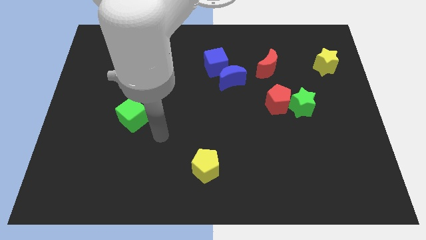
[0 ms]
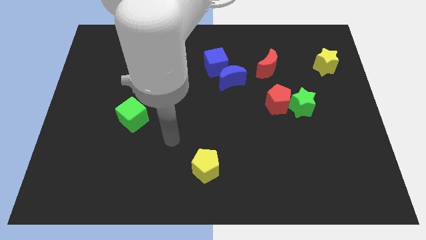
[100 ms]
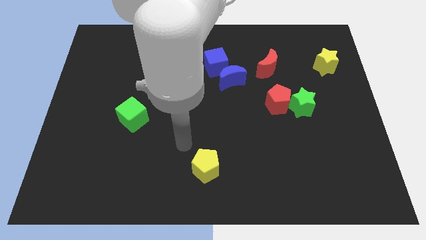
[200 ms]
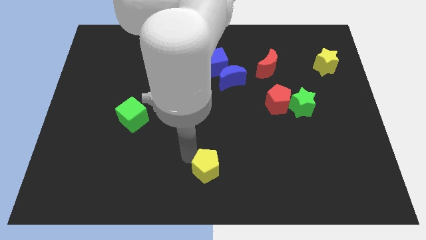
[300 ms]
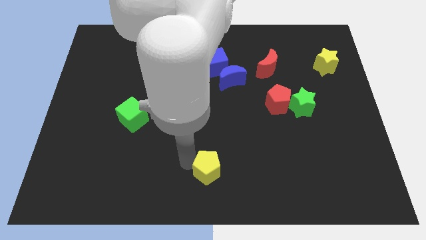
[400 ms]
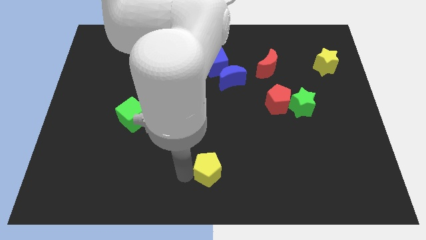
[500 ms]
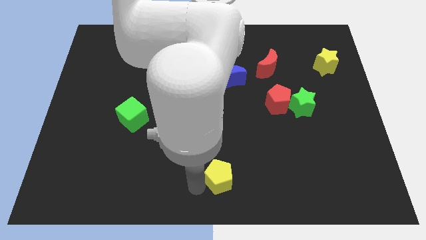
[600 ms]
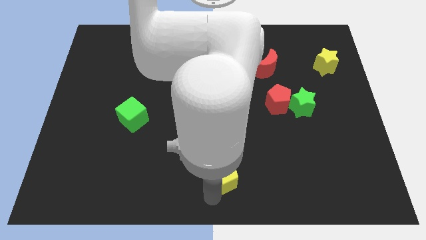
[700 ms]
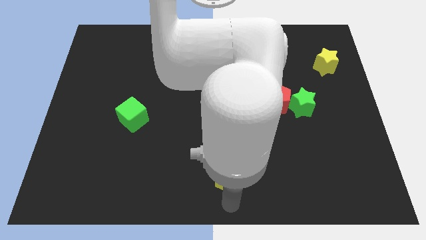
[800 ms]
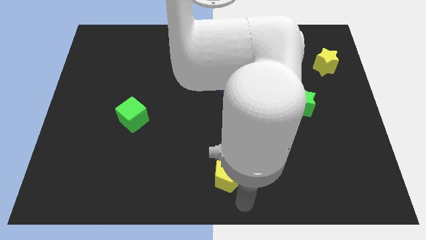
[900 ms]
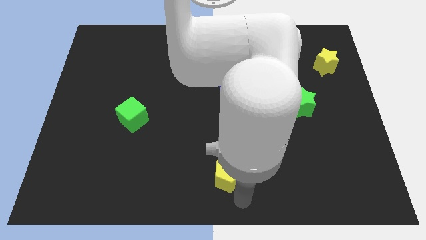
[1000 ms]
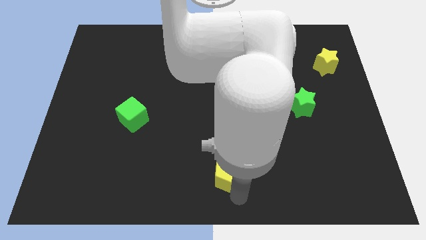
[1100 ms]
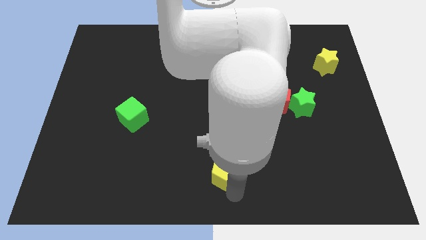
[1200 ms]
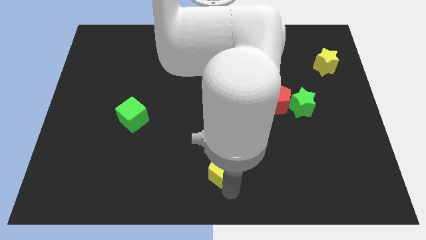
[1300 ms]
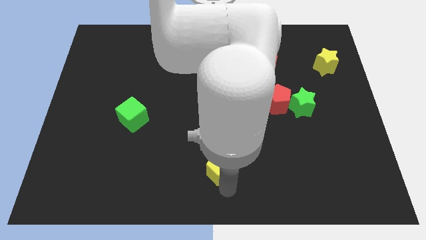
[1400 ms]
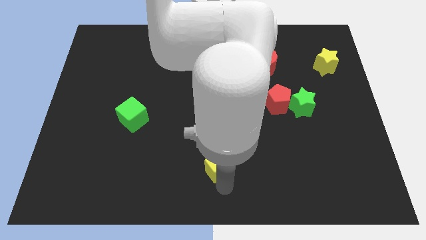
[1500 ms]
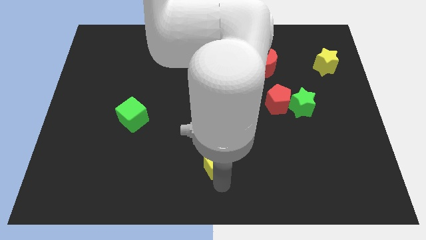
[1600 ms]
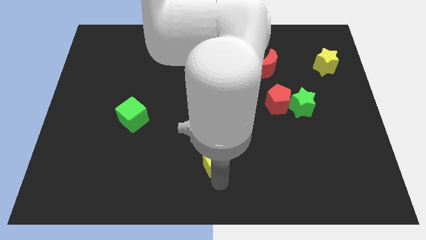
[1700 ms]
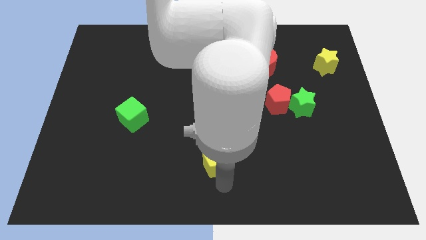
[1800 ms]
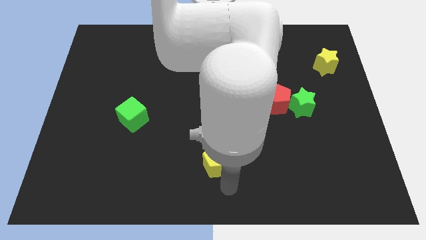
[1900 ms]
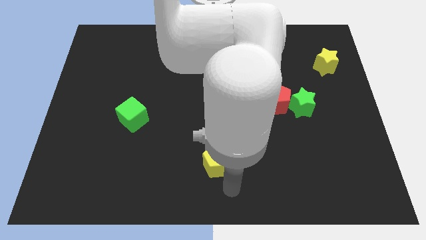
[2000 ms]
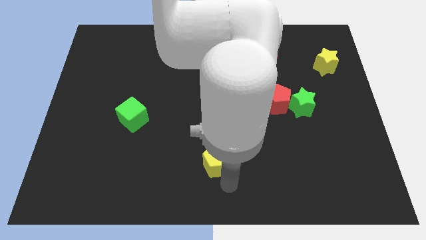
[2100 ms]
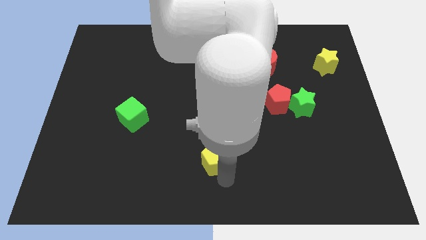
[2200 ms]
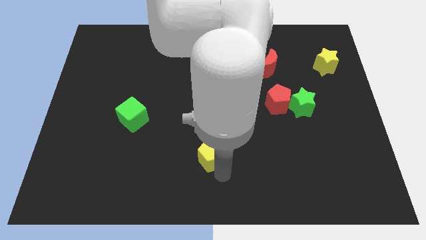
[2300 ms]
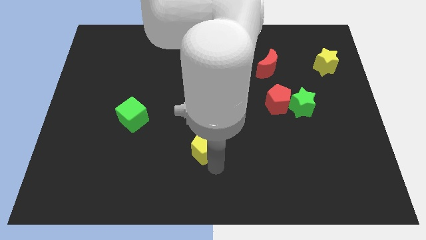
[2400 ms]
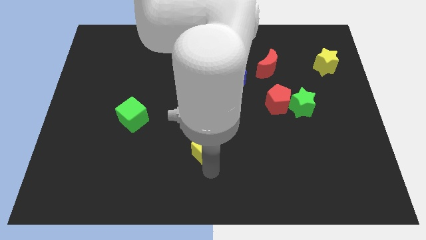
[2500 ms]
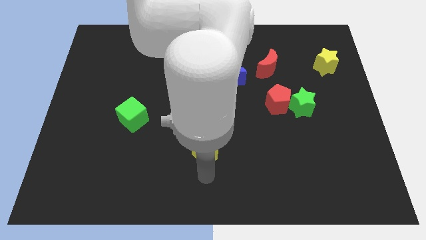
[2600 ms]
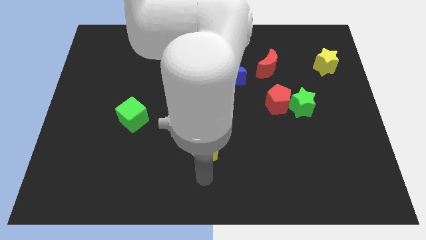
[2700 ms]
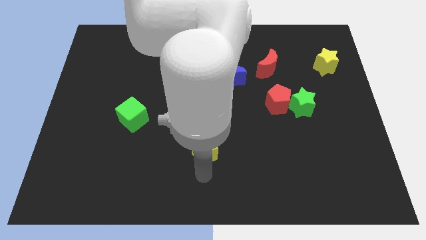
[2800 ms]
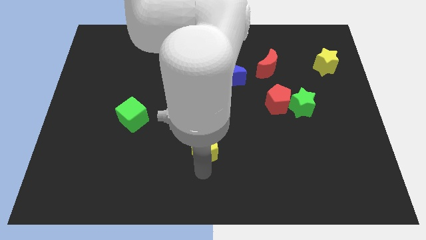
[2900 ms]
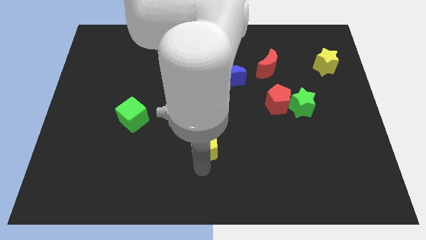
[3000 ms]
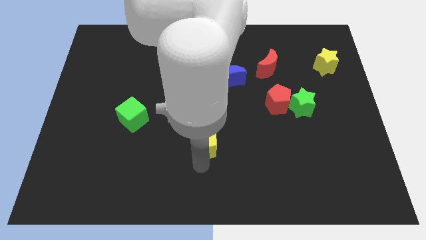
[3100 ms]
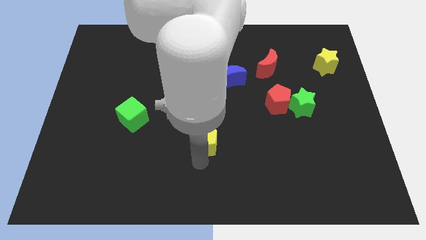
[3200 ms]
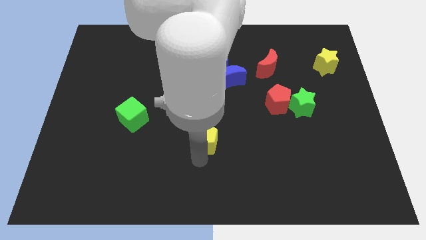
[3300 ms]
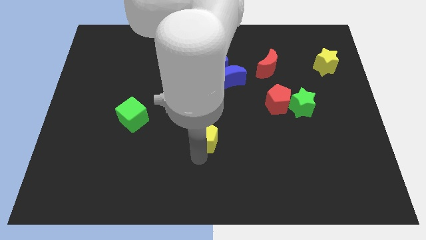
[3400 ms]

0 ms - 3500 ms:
push the yellow pentagon up a little bit

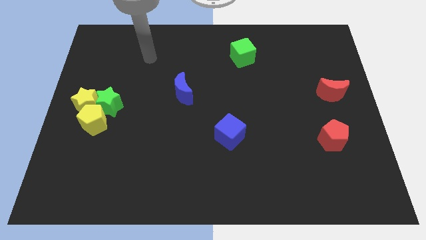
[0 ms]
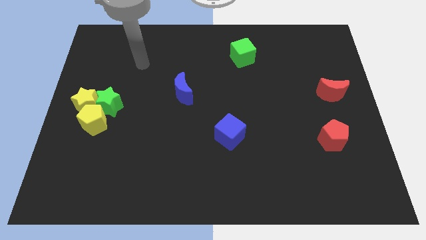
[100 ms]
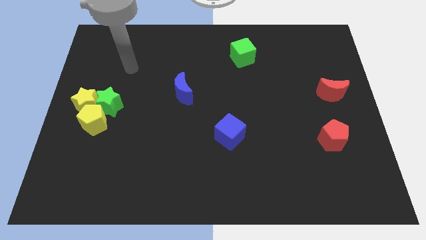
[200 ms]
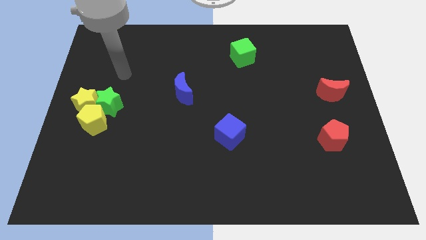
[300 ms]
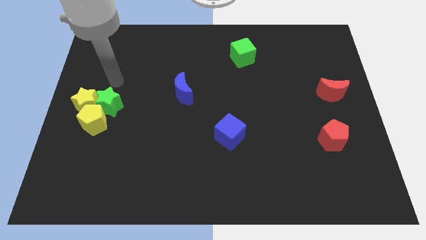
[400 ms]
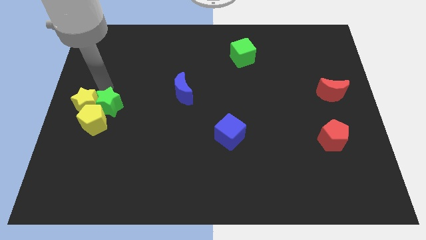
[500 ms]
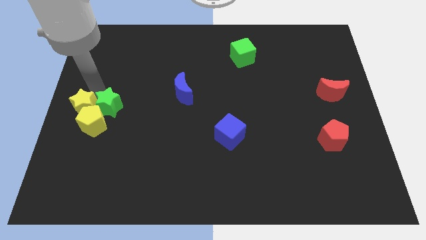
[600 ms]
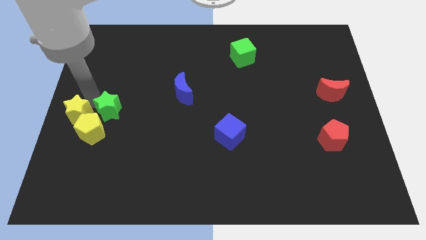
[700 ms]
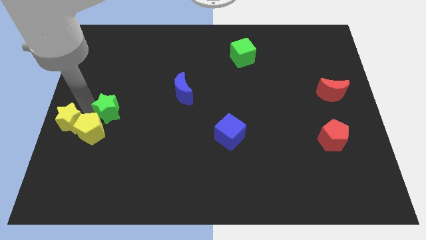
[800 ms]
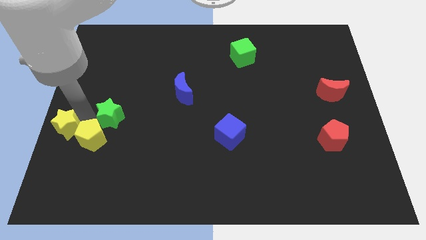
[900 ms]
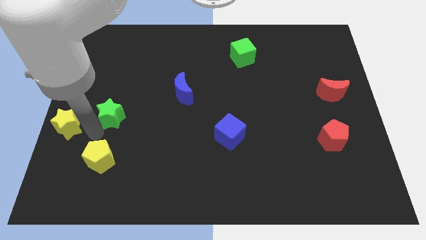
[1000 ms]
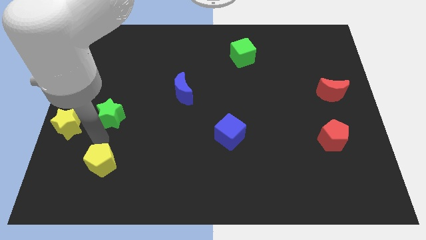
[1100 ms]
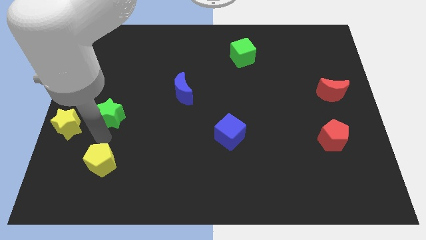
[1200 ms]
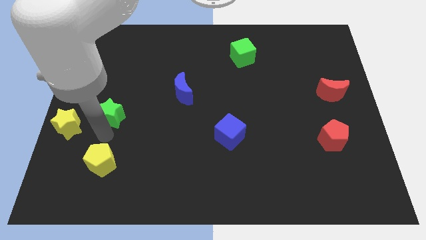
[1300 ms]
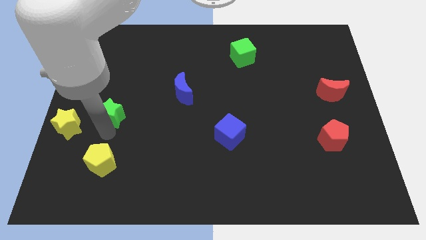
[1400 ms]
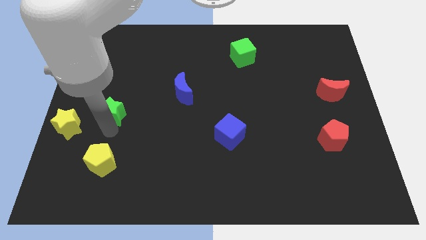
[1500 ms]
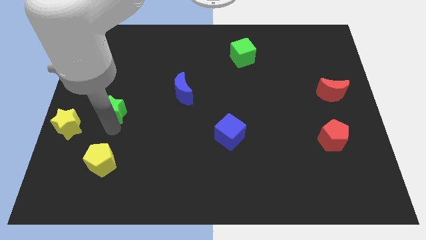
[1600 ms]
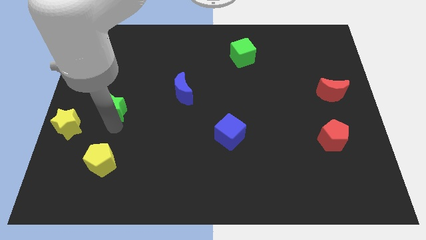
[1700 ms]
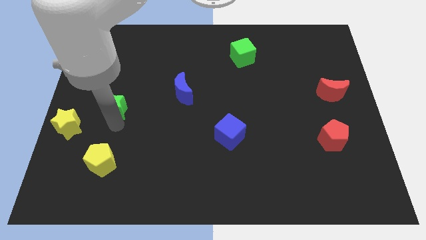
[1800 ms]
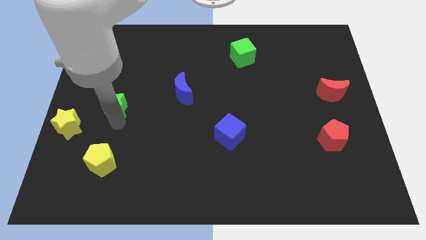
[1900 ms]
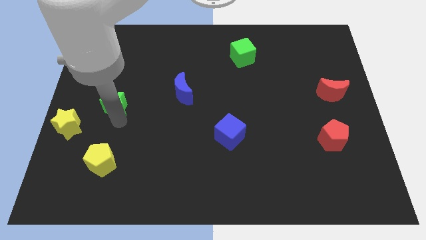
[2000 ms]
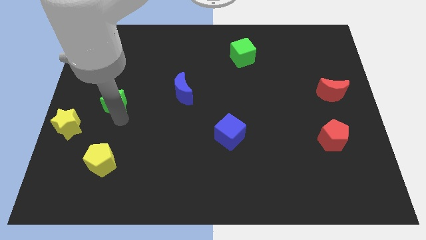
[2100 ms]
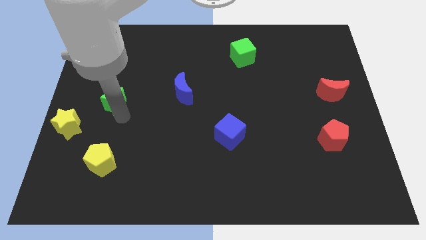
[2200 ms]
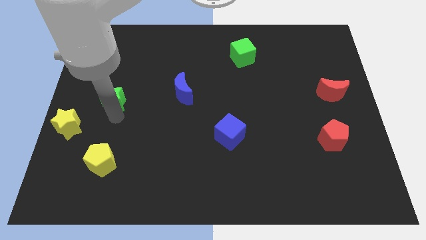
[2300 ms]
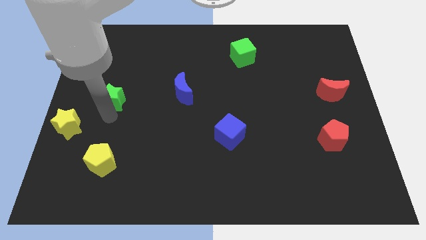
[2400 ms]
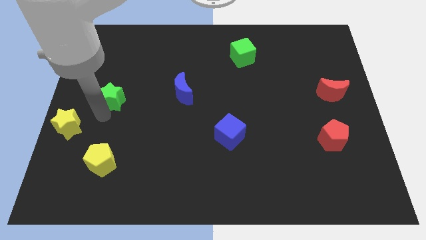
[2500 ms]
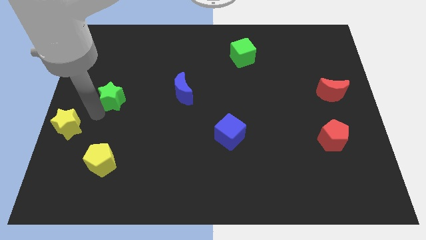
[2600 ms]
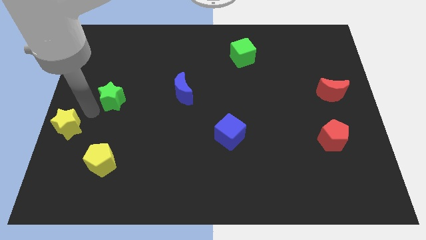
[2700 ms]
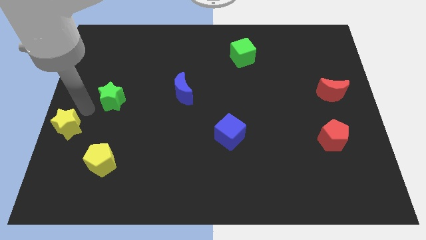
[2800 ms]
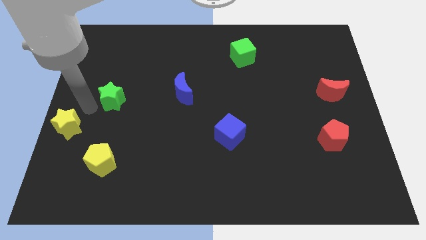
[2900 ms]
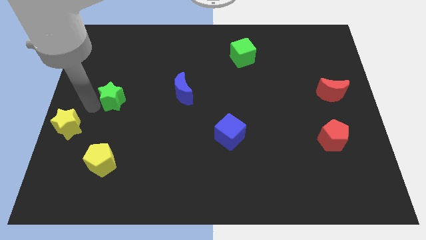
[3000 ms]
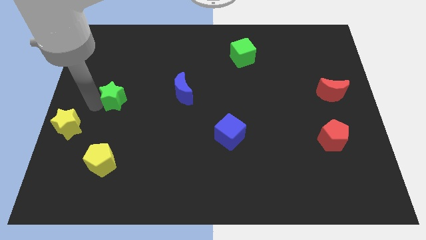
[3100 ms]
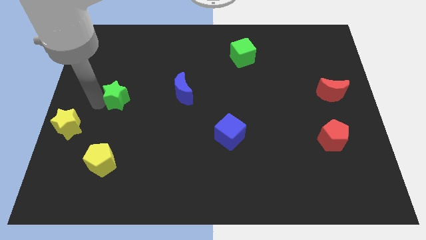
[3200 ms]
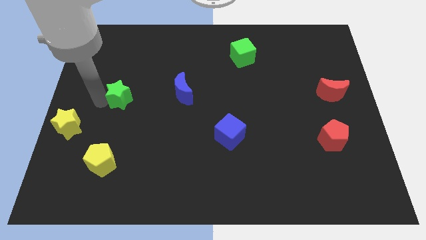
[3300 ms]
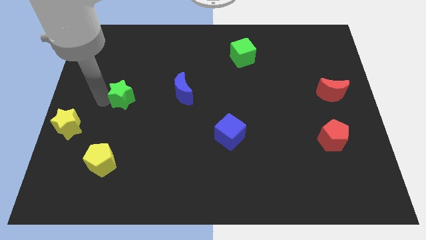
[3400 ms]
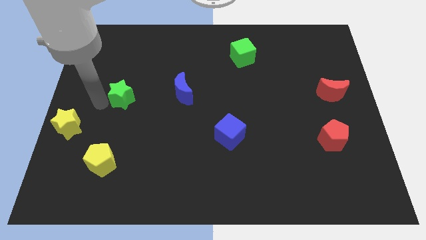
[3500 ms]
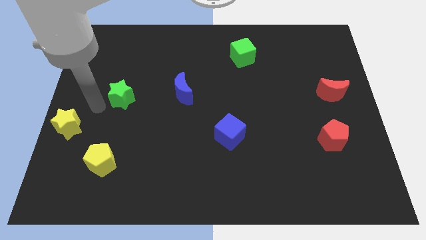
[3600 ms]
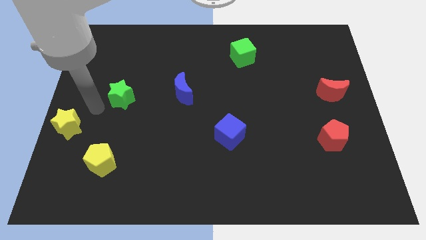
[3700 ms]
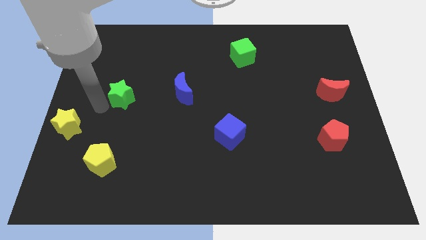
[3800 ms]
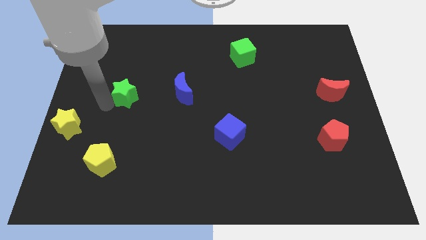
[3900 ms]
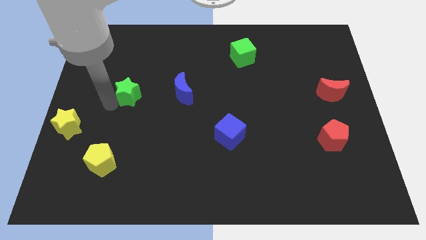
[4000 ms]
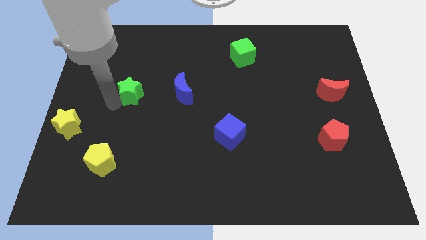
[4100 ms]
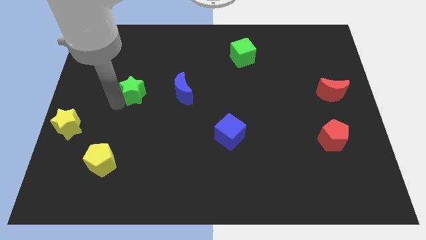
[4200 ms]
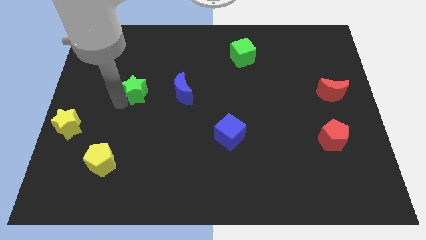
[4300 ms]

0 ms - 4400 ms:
push the green star upwards and right diagonally a little
